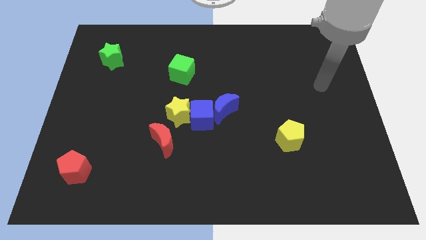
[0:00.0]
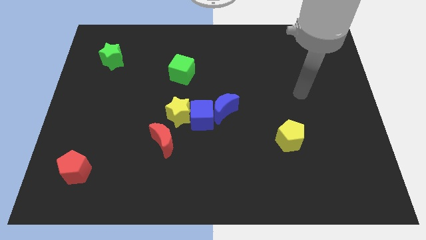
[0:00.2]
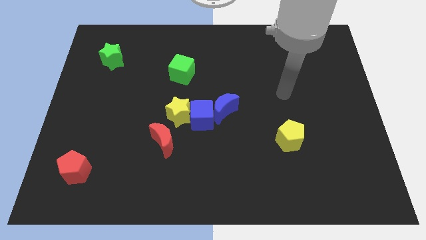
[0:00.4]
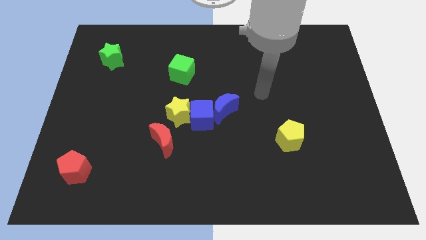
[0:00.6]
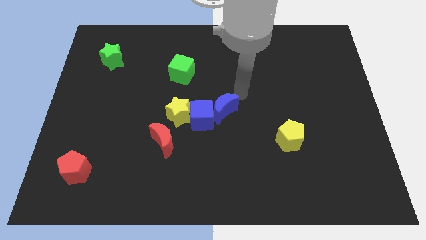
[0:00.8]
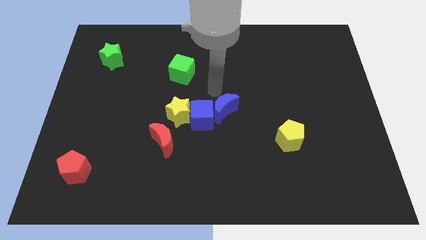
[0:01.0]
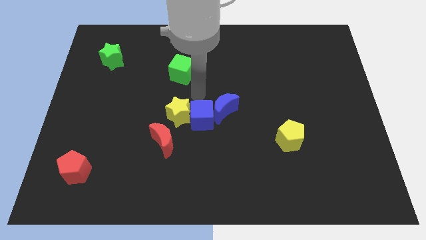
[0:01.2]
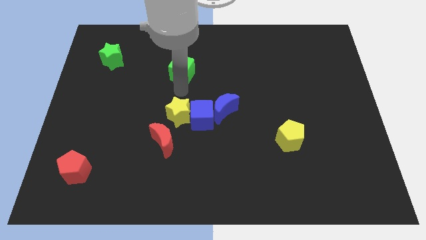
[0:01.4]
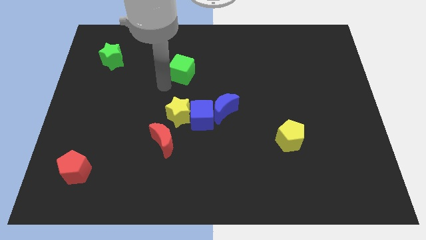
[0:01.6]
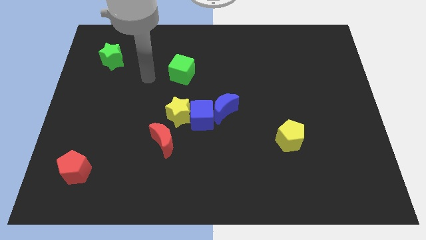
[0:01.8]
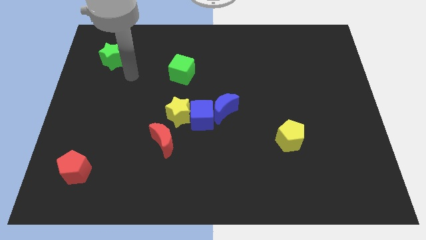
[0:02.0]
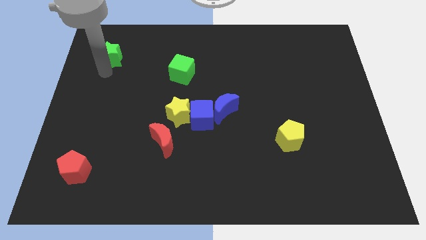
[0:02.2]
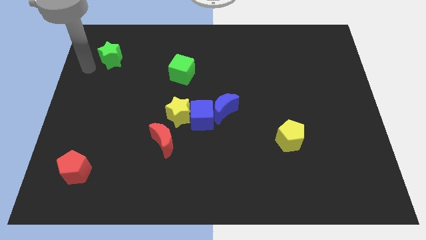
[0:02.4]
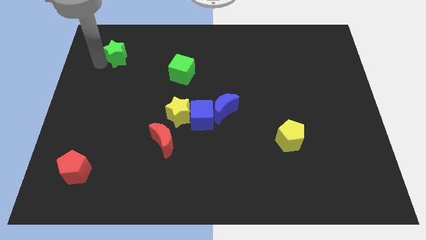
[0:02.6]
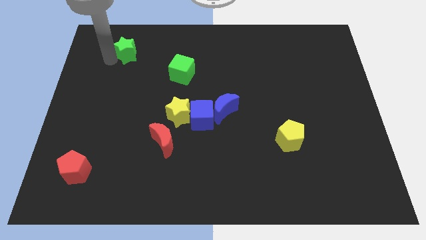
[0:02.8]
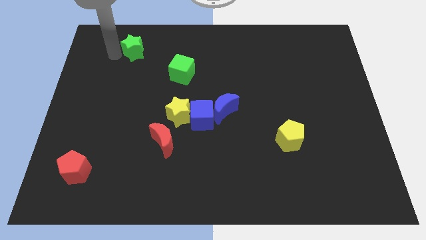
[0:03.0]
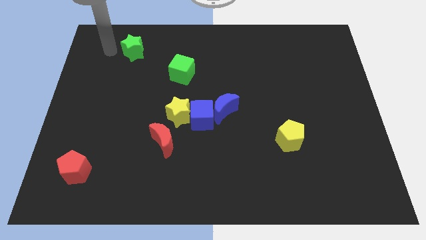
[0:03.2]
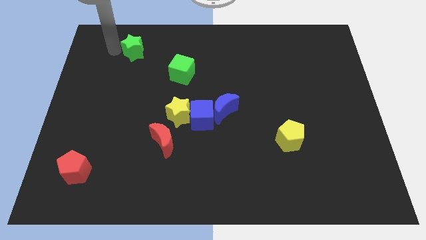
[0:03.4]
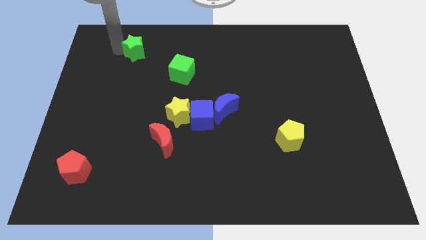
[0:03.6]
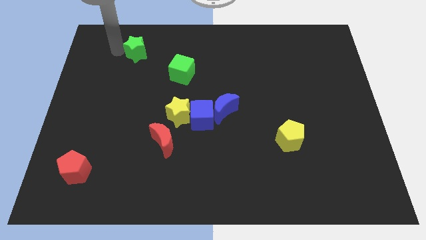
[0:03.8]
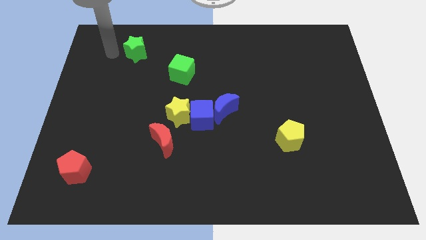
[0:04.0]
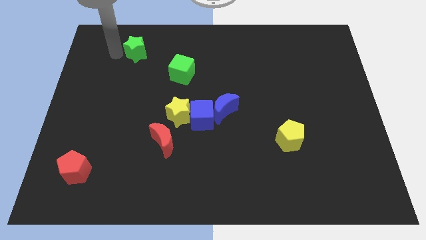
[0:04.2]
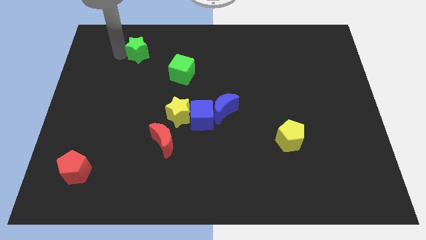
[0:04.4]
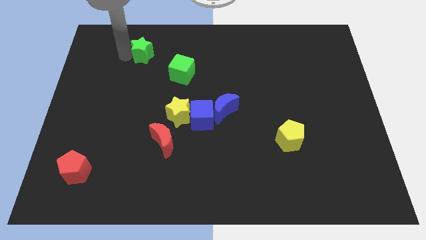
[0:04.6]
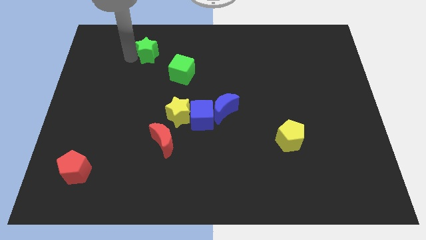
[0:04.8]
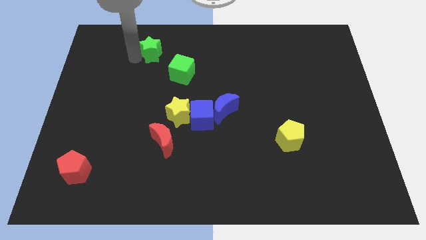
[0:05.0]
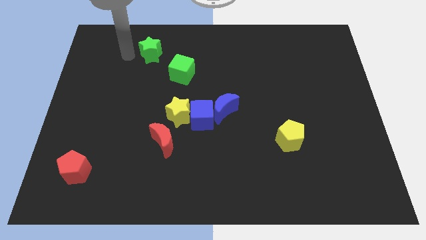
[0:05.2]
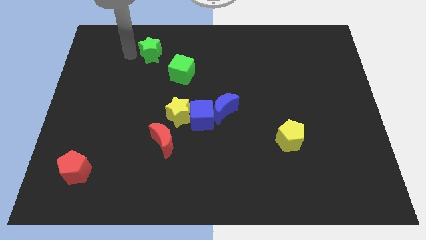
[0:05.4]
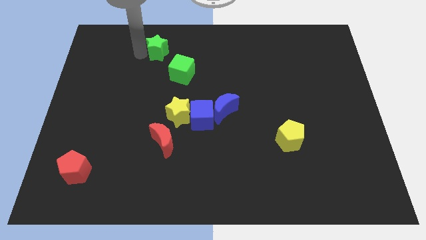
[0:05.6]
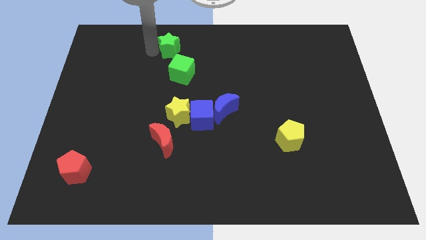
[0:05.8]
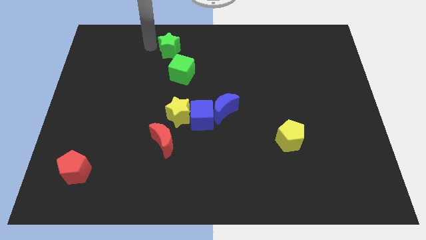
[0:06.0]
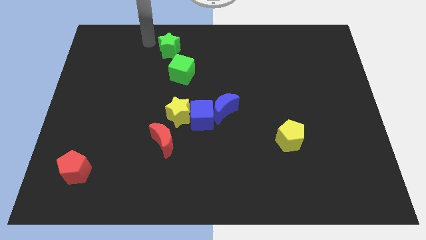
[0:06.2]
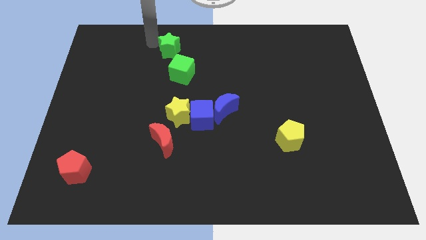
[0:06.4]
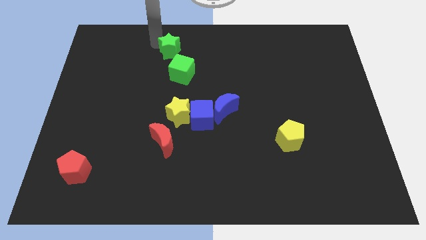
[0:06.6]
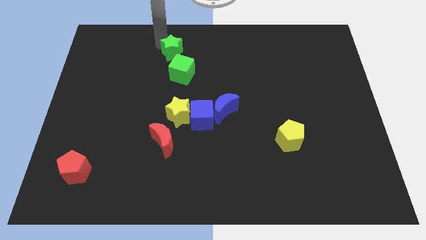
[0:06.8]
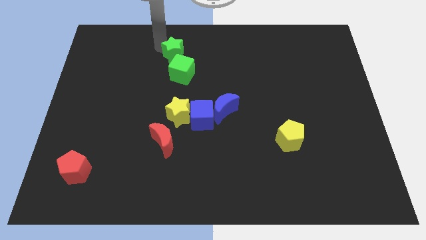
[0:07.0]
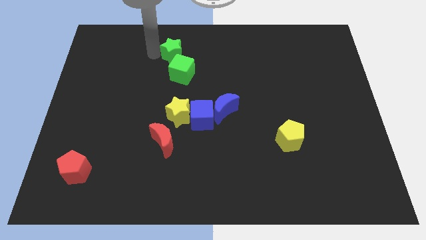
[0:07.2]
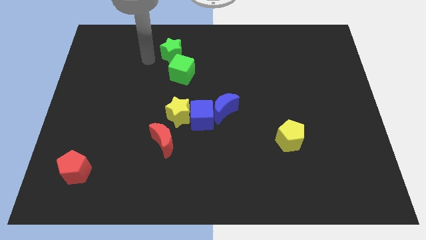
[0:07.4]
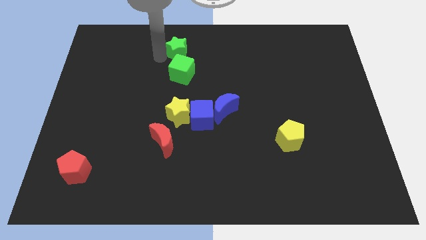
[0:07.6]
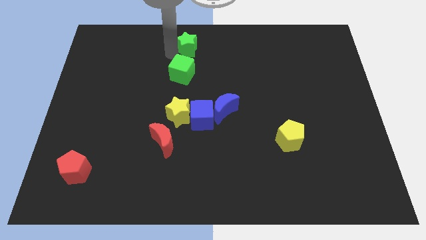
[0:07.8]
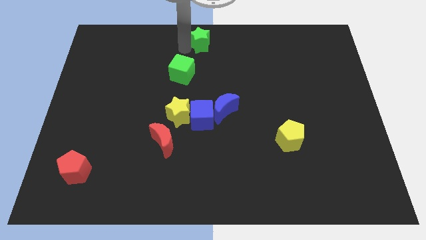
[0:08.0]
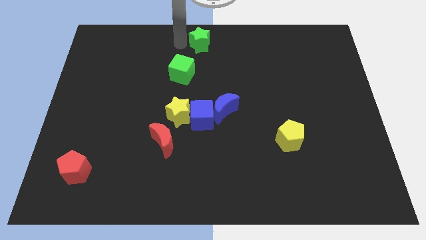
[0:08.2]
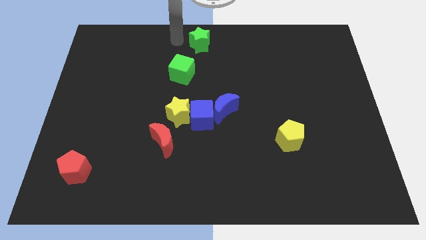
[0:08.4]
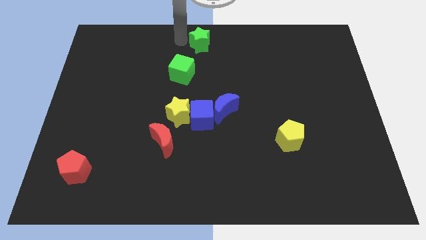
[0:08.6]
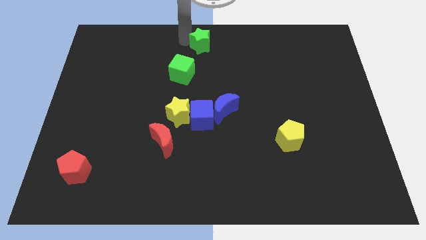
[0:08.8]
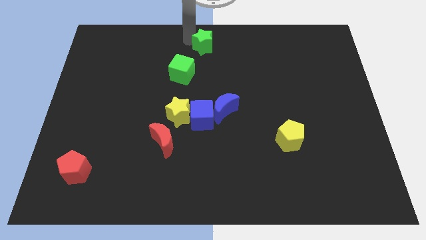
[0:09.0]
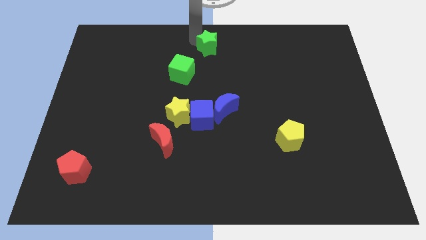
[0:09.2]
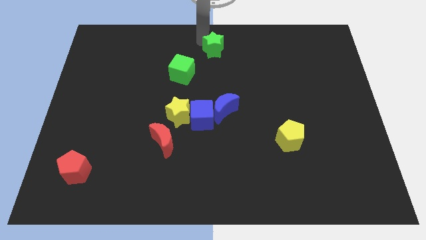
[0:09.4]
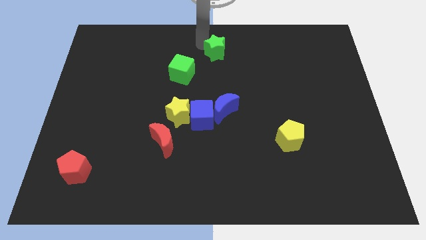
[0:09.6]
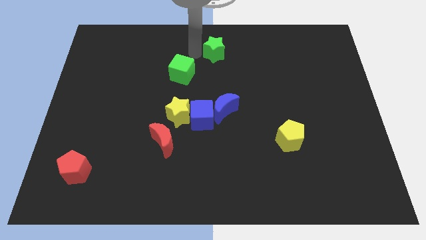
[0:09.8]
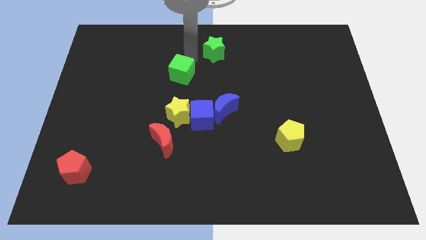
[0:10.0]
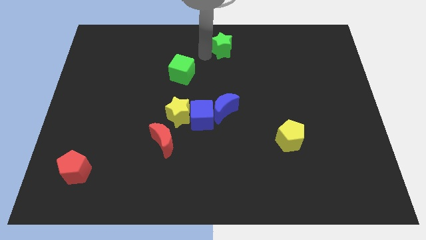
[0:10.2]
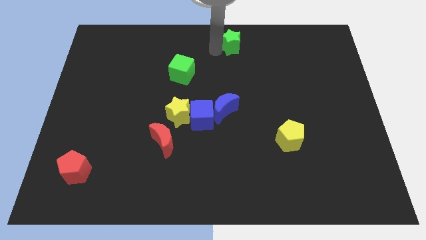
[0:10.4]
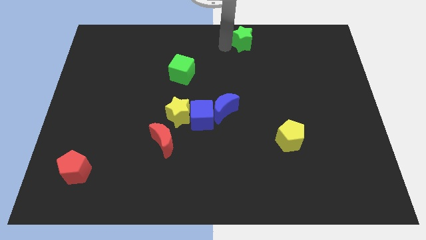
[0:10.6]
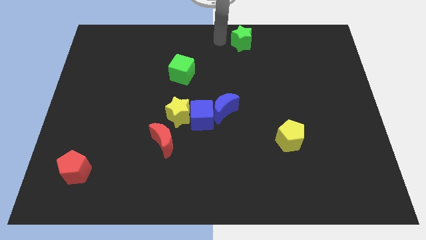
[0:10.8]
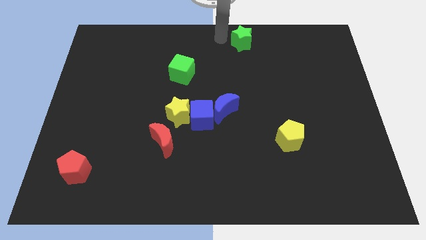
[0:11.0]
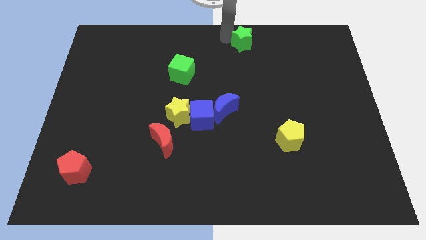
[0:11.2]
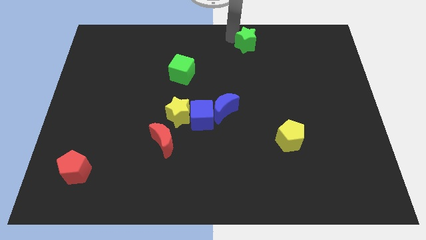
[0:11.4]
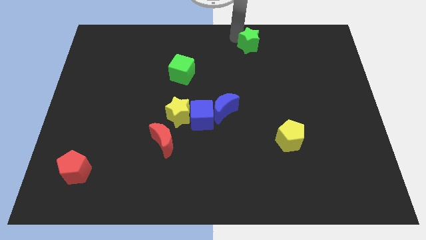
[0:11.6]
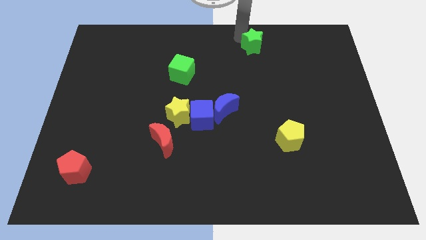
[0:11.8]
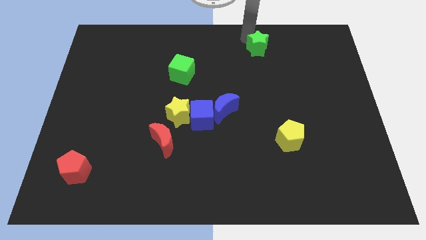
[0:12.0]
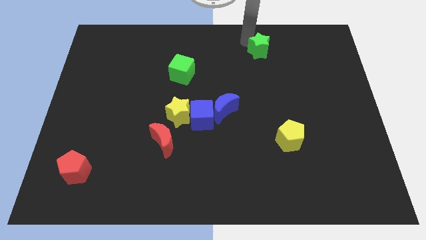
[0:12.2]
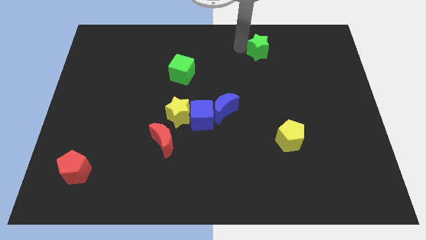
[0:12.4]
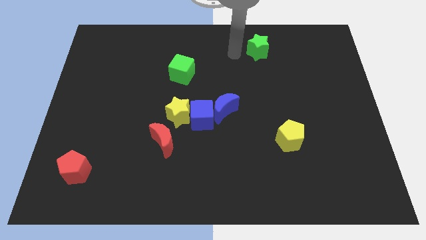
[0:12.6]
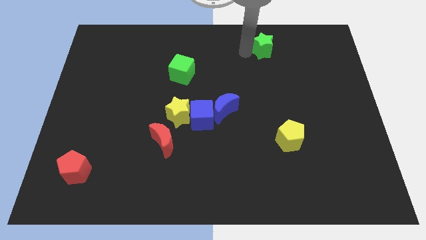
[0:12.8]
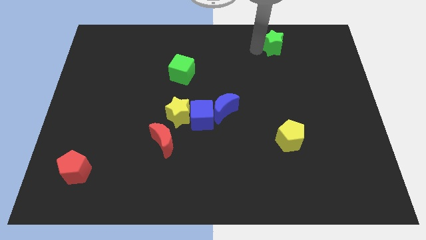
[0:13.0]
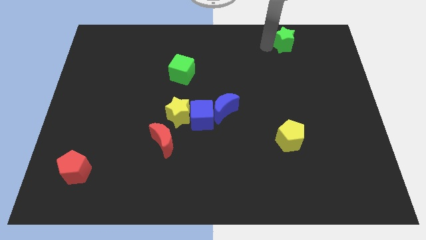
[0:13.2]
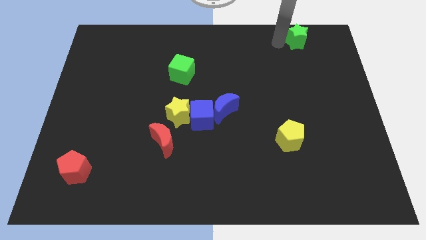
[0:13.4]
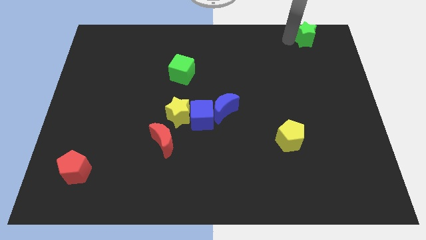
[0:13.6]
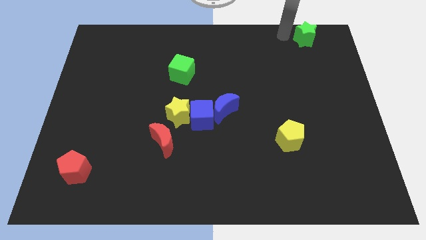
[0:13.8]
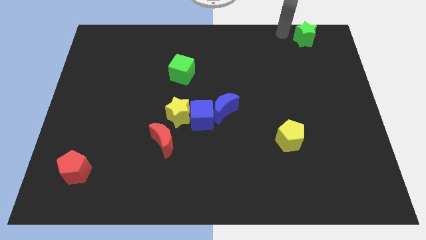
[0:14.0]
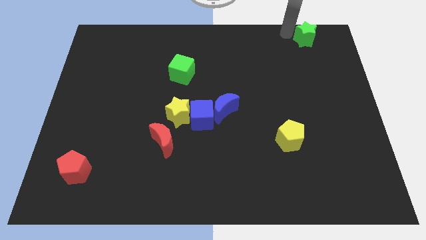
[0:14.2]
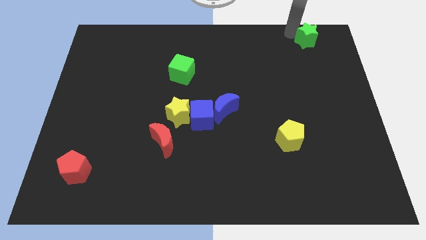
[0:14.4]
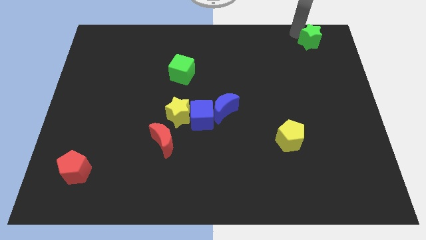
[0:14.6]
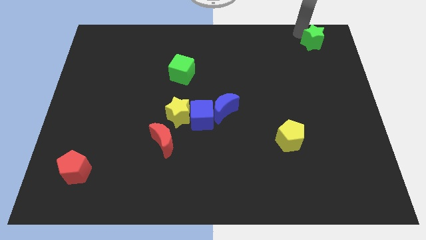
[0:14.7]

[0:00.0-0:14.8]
push the green star to the top right of the board
